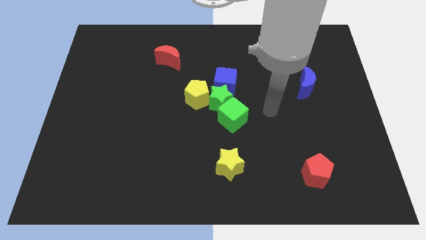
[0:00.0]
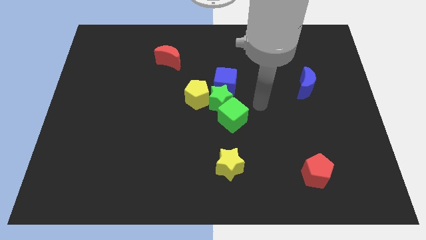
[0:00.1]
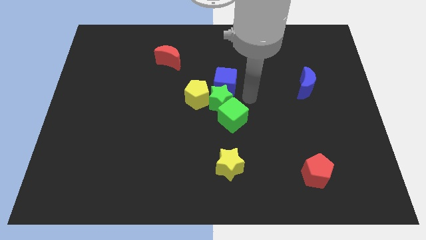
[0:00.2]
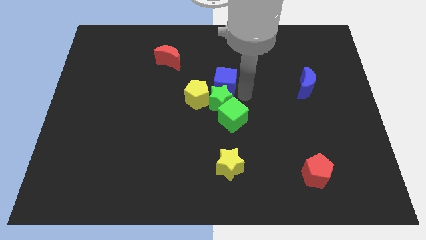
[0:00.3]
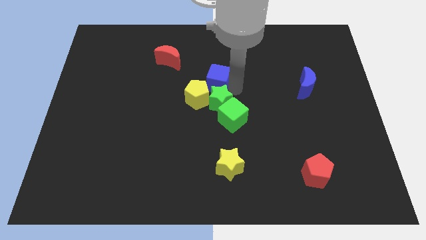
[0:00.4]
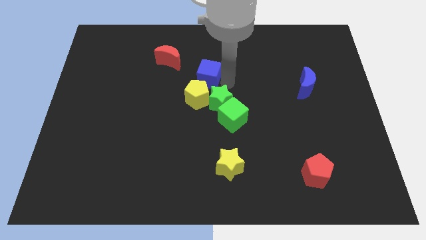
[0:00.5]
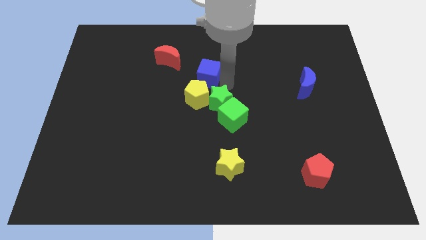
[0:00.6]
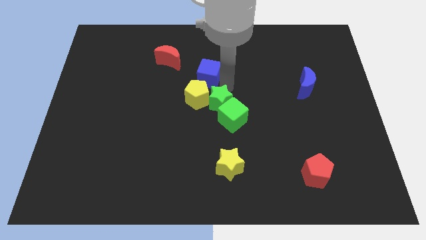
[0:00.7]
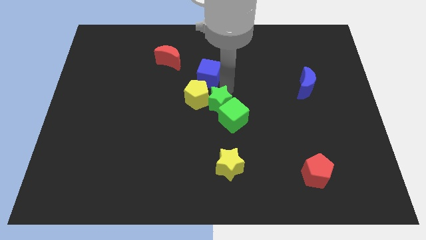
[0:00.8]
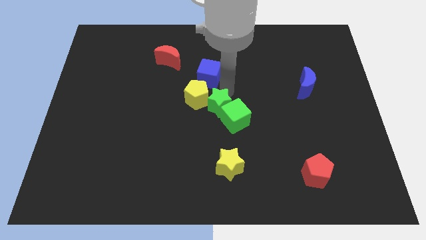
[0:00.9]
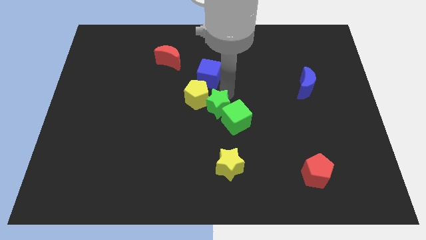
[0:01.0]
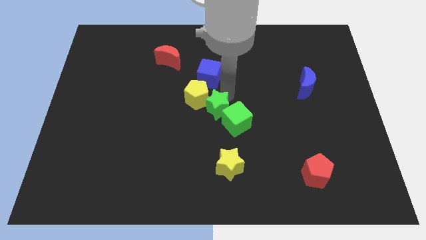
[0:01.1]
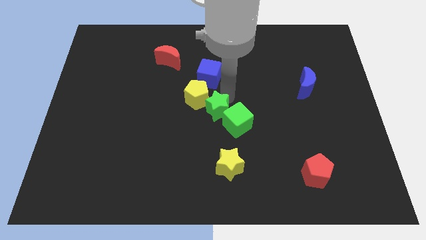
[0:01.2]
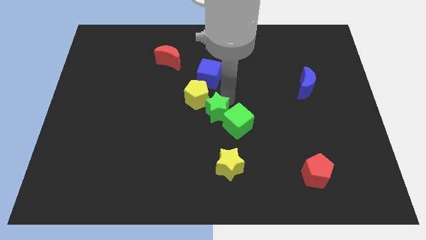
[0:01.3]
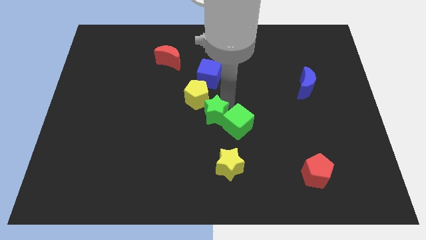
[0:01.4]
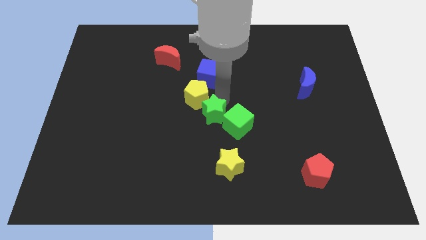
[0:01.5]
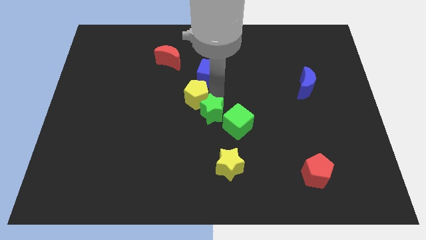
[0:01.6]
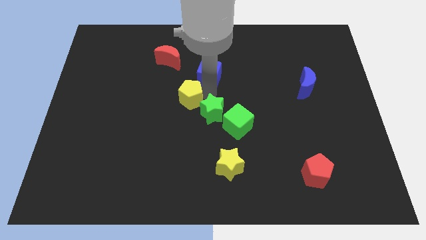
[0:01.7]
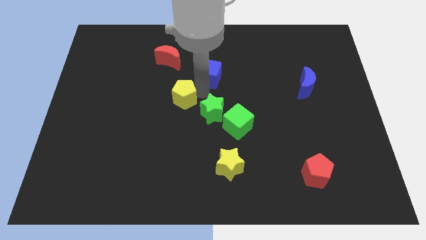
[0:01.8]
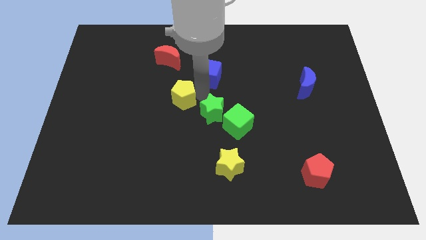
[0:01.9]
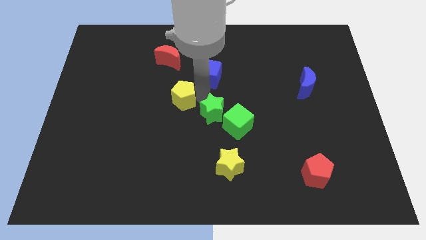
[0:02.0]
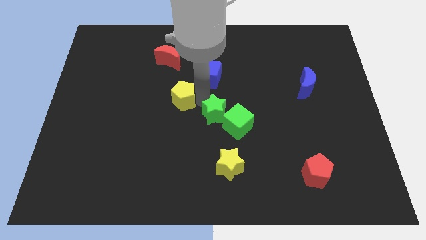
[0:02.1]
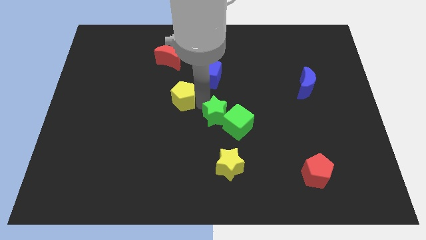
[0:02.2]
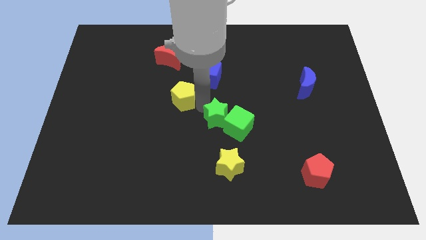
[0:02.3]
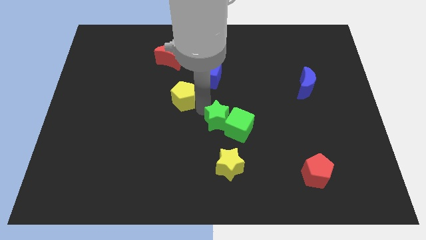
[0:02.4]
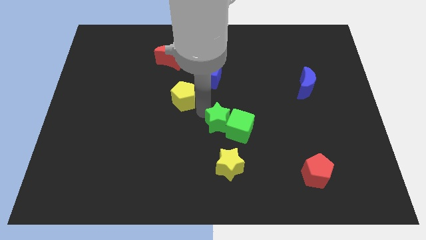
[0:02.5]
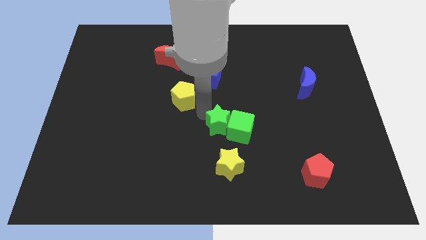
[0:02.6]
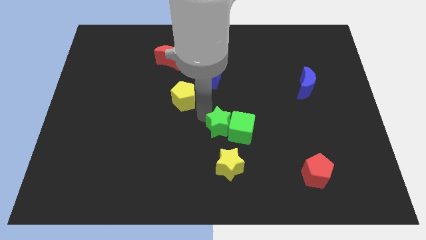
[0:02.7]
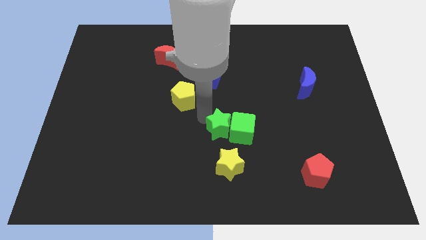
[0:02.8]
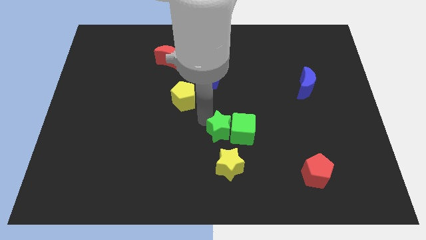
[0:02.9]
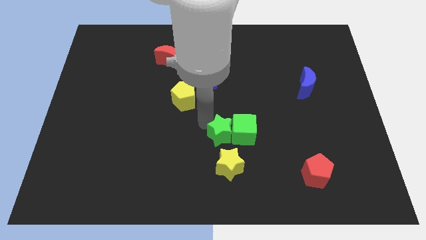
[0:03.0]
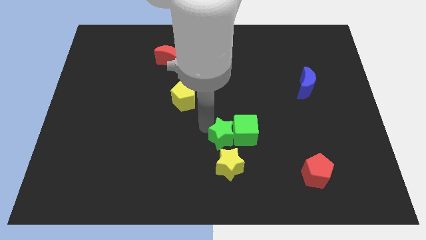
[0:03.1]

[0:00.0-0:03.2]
move the green star away from the group

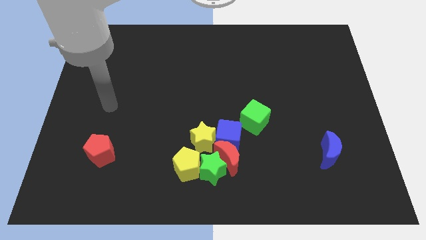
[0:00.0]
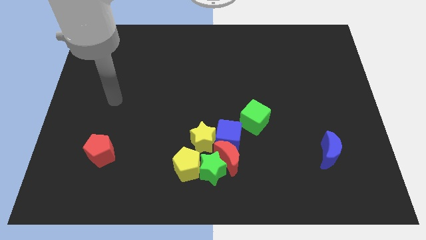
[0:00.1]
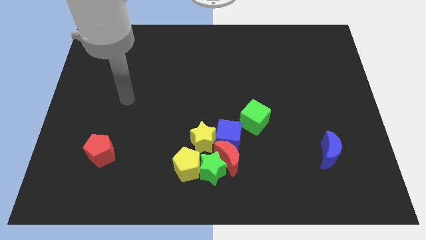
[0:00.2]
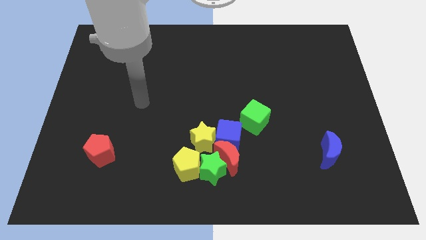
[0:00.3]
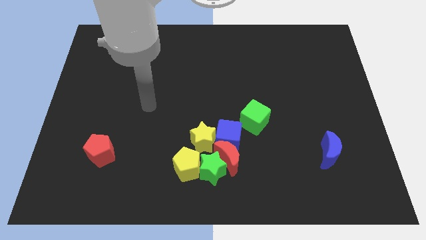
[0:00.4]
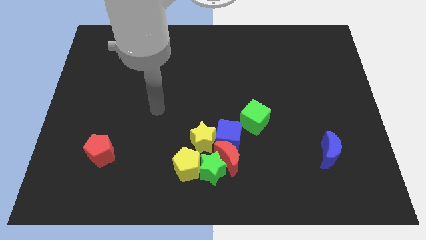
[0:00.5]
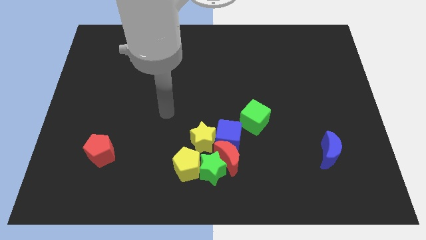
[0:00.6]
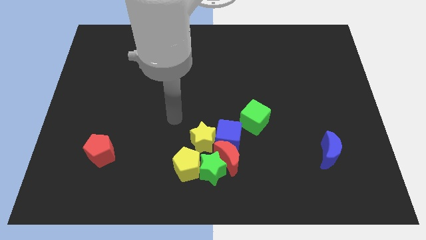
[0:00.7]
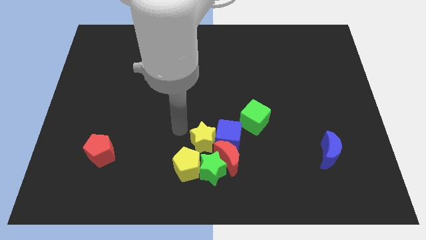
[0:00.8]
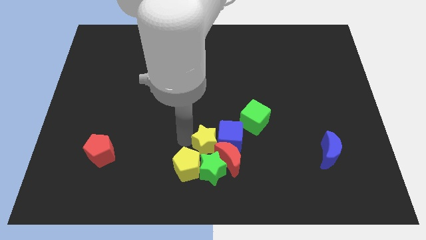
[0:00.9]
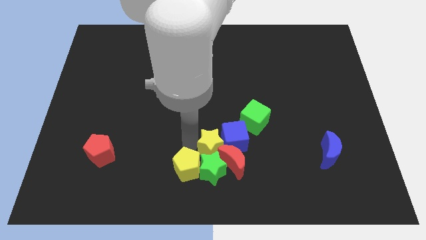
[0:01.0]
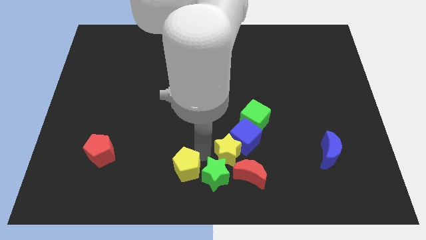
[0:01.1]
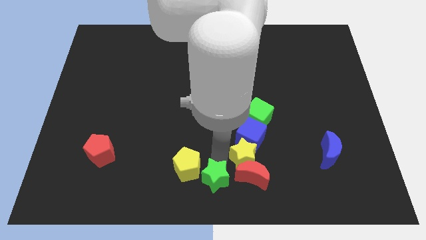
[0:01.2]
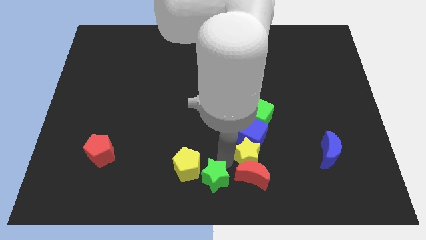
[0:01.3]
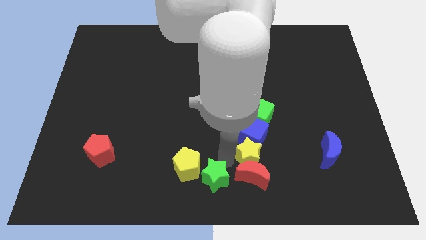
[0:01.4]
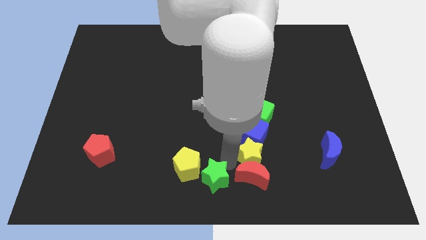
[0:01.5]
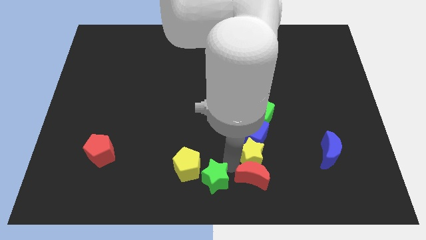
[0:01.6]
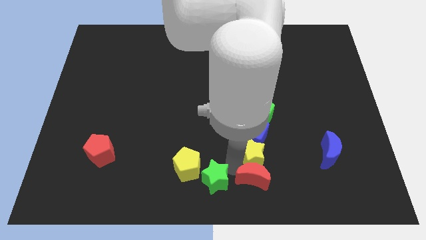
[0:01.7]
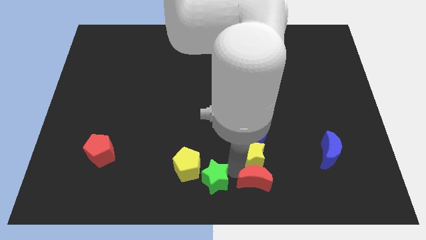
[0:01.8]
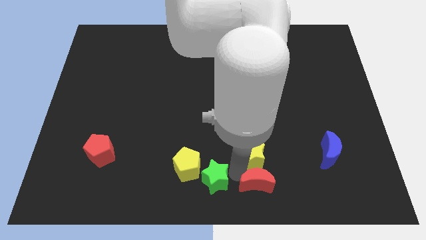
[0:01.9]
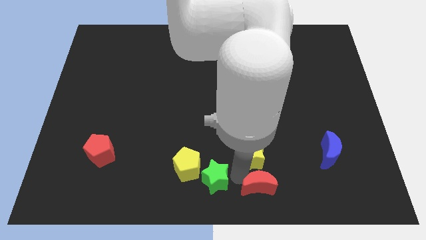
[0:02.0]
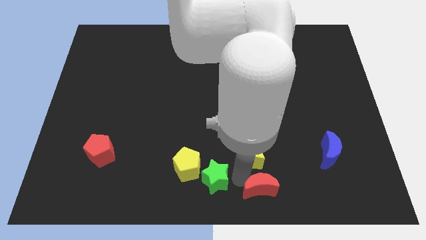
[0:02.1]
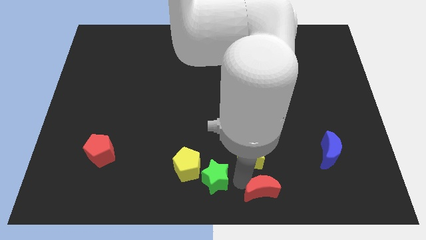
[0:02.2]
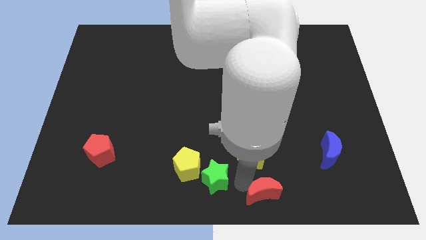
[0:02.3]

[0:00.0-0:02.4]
move the red moon away from the group

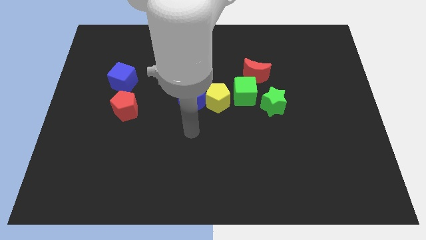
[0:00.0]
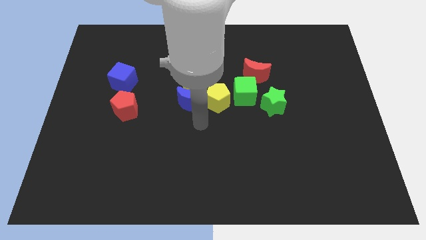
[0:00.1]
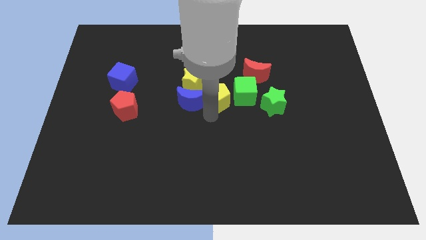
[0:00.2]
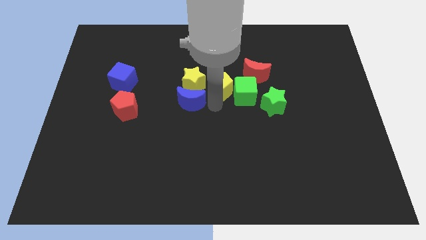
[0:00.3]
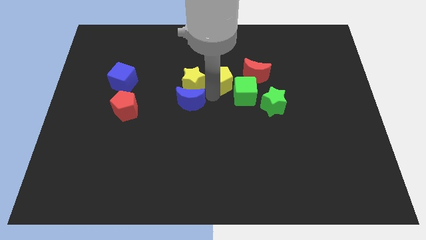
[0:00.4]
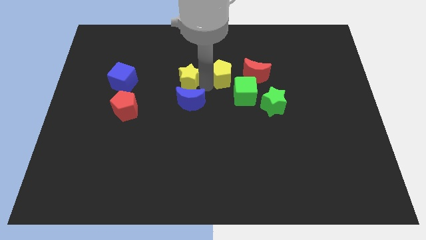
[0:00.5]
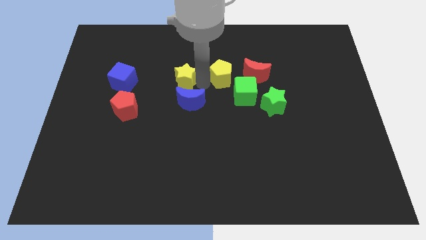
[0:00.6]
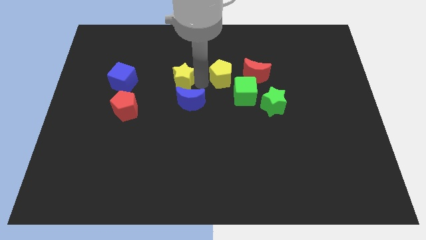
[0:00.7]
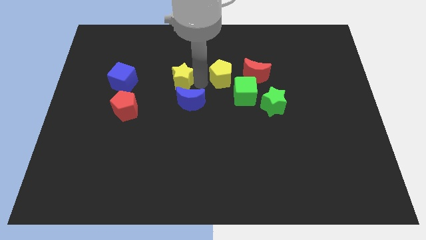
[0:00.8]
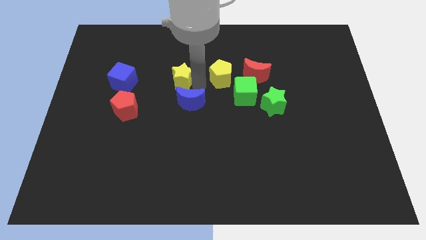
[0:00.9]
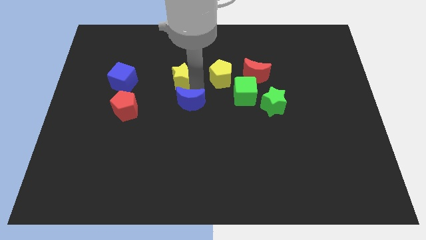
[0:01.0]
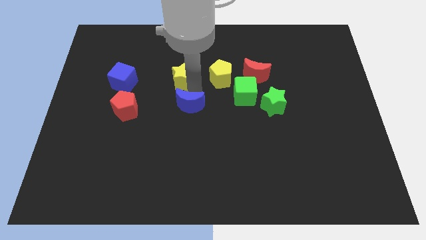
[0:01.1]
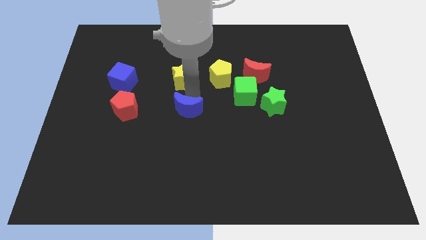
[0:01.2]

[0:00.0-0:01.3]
separate the blue moon from the yellow star and yellow pentagon

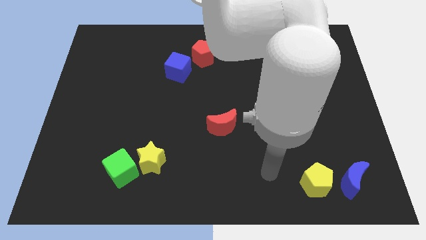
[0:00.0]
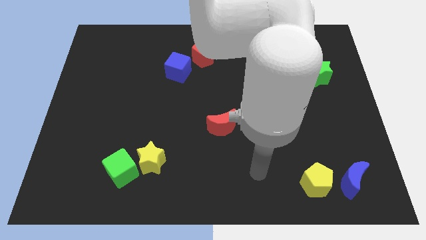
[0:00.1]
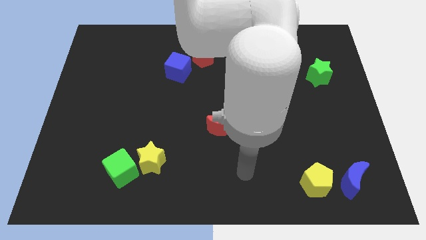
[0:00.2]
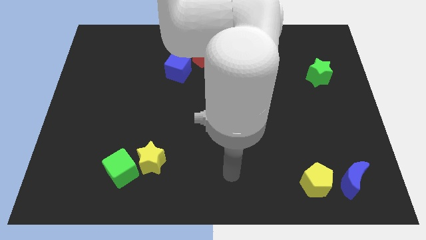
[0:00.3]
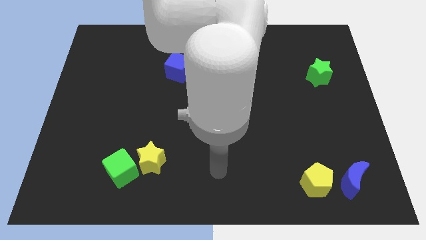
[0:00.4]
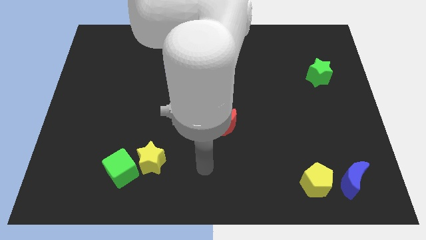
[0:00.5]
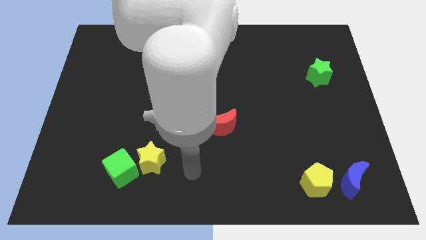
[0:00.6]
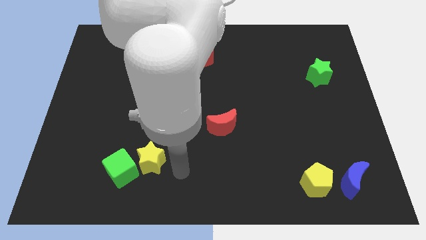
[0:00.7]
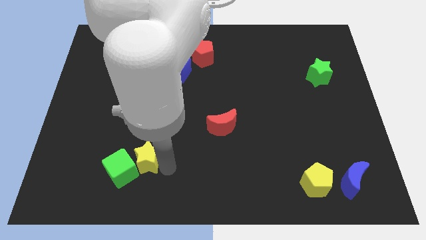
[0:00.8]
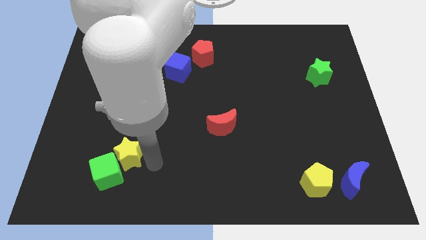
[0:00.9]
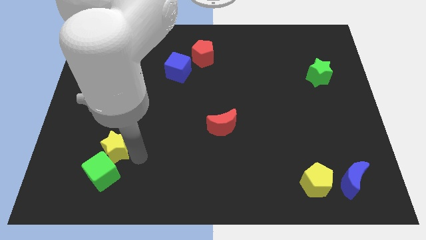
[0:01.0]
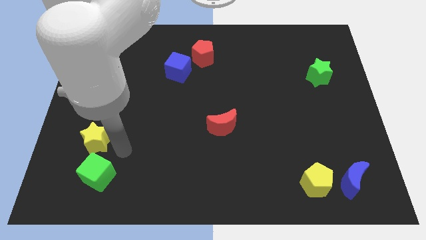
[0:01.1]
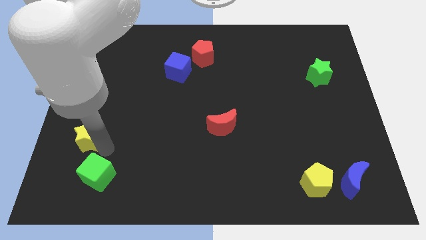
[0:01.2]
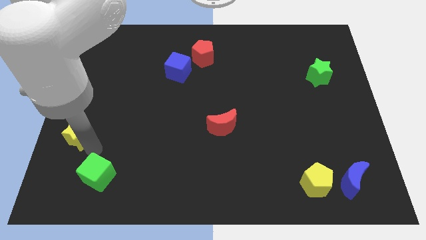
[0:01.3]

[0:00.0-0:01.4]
separate the green cube from the yellow star

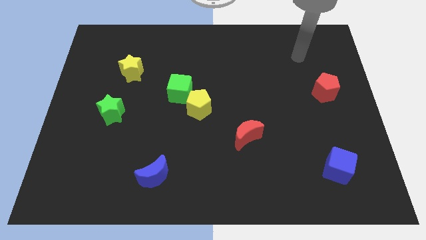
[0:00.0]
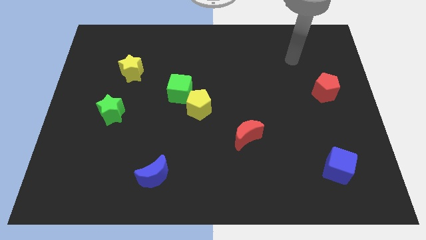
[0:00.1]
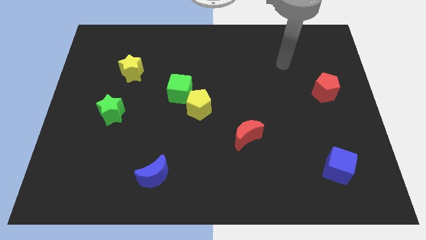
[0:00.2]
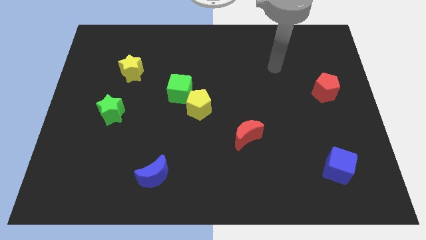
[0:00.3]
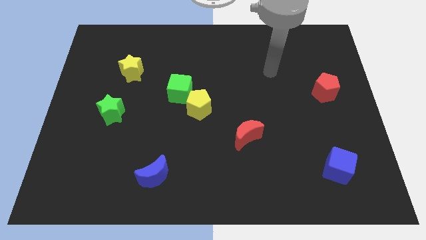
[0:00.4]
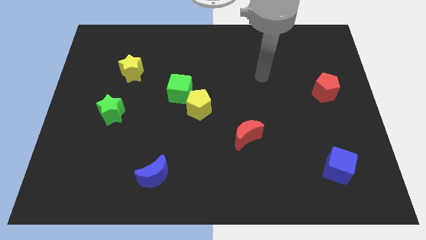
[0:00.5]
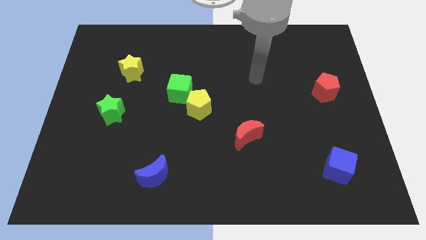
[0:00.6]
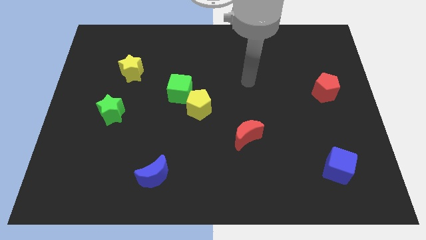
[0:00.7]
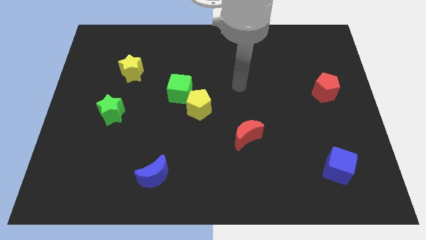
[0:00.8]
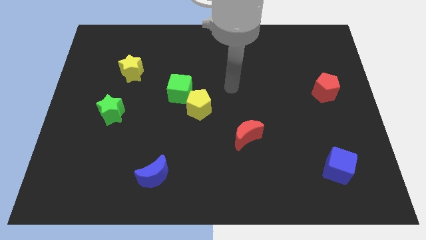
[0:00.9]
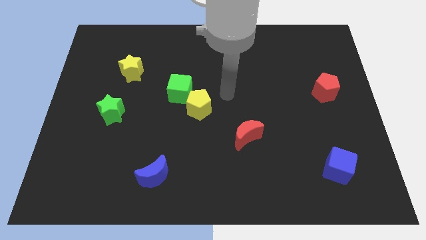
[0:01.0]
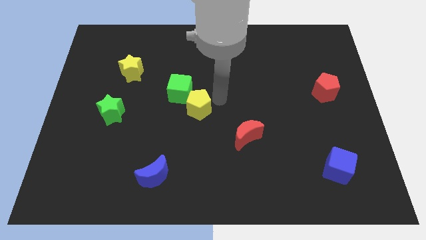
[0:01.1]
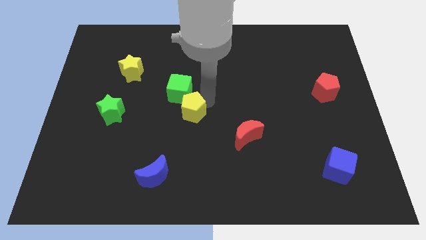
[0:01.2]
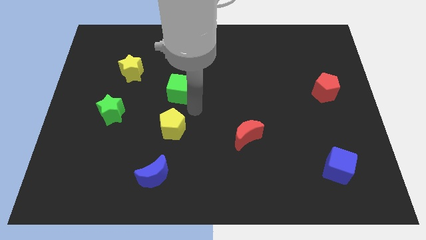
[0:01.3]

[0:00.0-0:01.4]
pull the green cube apart from the yellow pentagon
